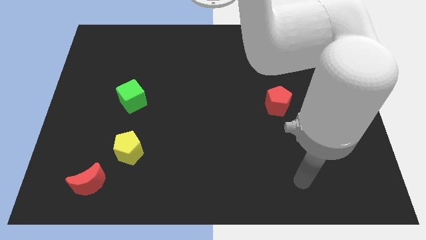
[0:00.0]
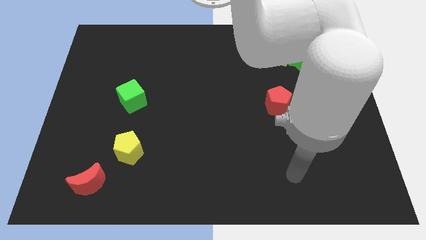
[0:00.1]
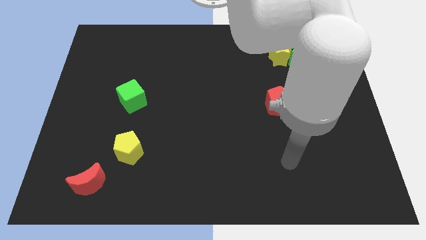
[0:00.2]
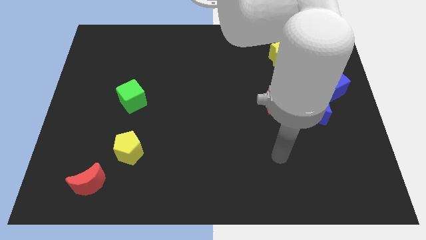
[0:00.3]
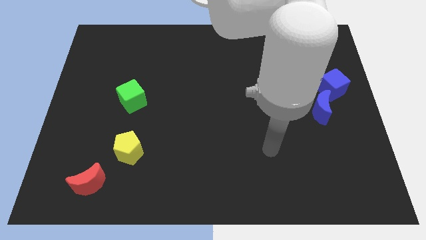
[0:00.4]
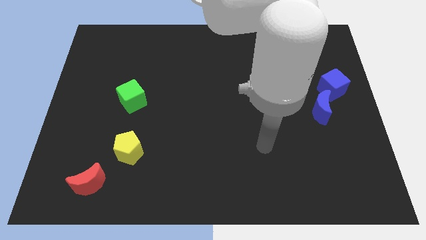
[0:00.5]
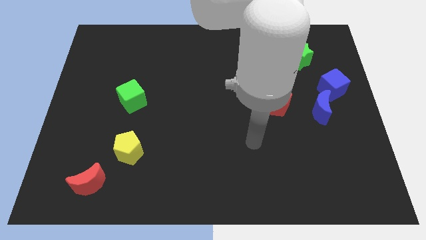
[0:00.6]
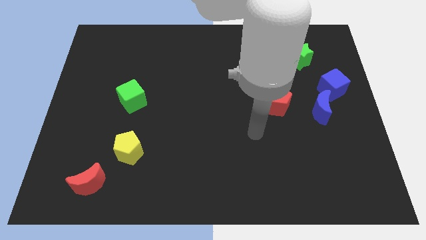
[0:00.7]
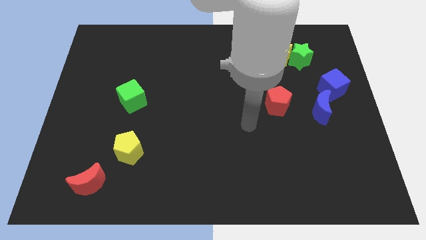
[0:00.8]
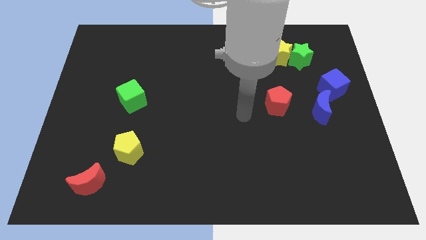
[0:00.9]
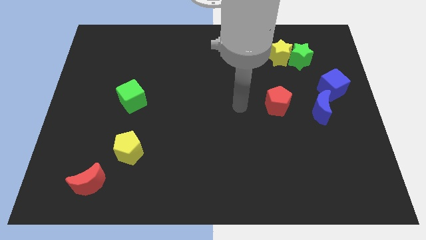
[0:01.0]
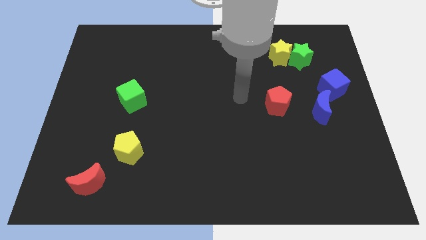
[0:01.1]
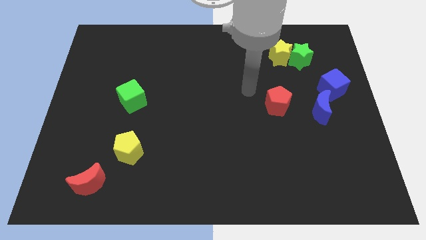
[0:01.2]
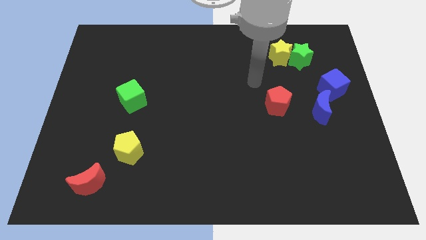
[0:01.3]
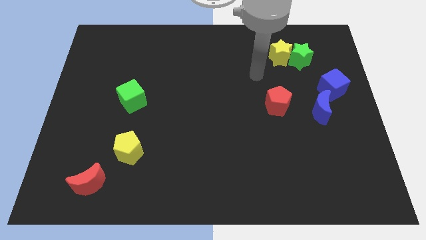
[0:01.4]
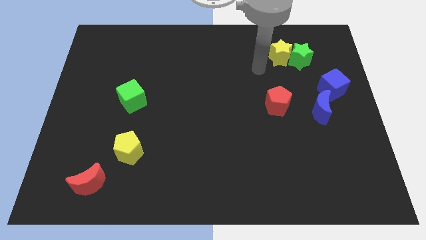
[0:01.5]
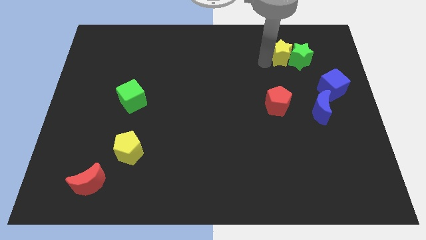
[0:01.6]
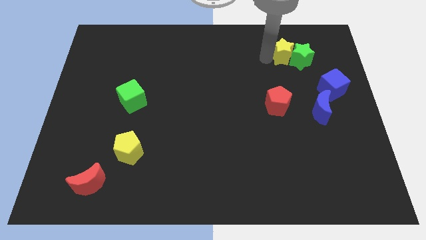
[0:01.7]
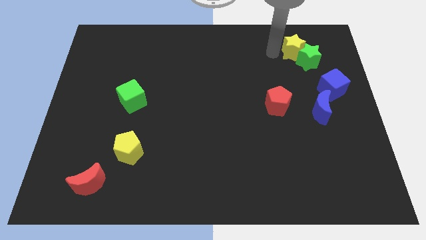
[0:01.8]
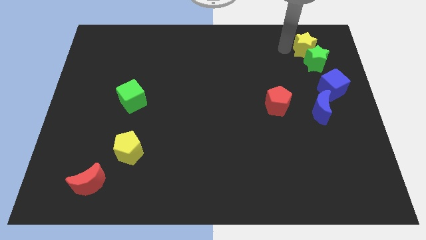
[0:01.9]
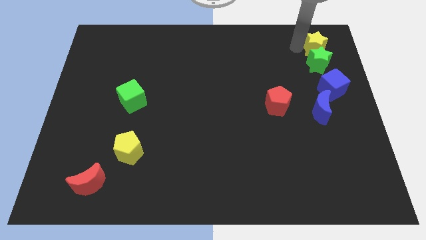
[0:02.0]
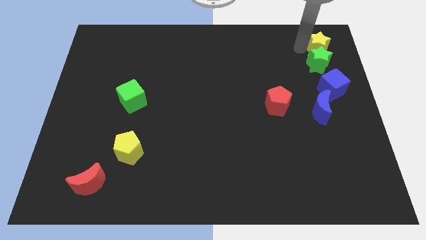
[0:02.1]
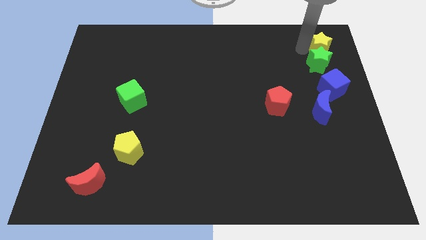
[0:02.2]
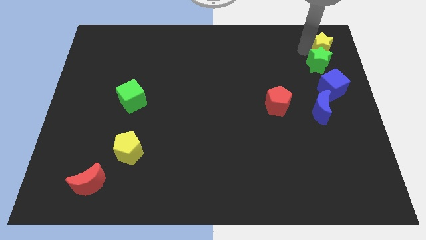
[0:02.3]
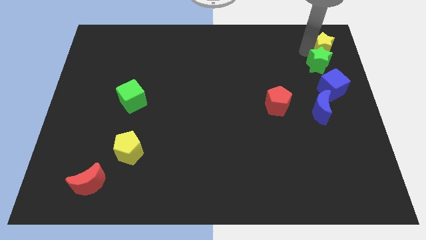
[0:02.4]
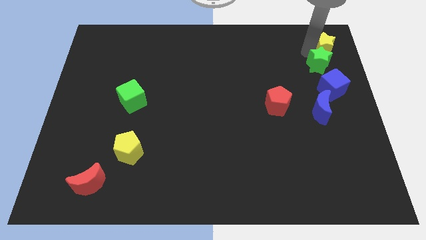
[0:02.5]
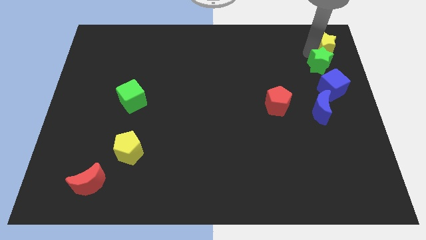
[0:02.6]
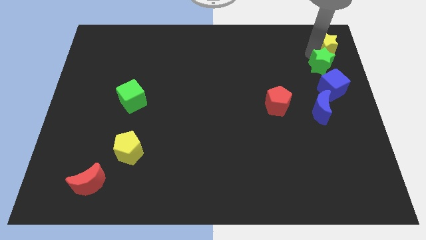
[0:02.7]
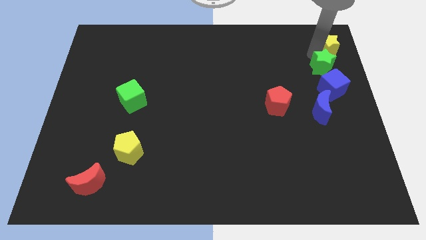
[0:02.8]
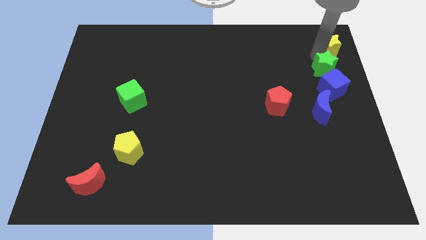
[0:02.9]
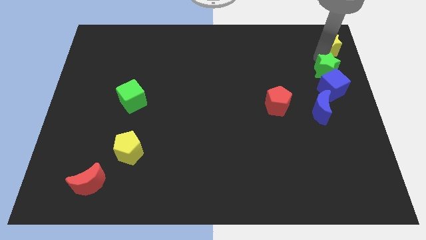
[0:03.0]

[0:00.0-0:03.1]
put the green star to the right side of the board

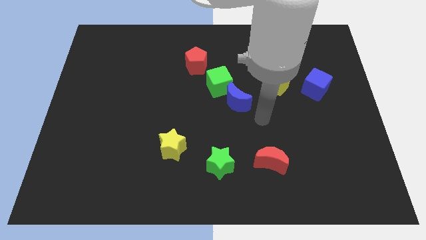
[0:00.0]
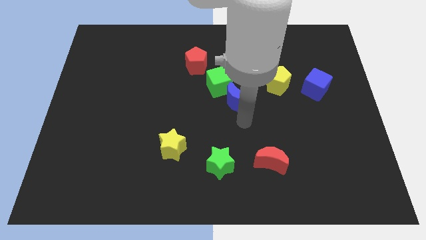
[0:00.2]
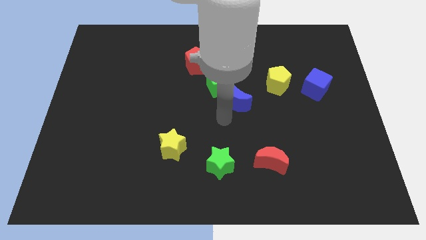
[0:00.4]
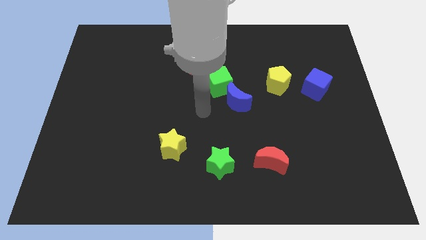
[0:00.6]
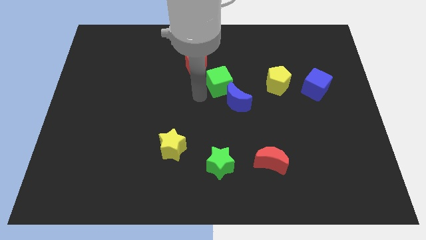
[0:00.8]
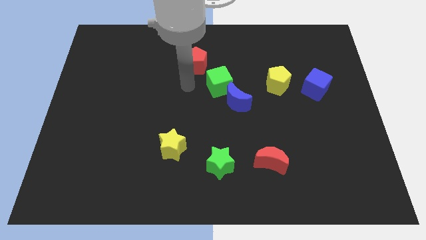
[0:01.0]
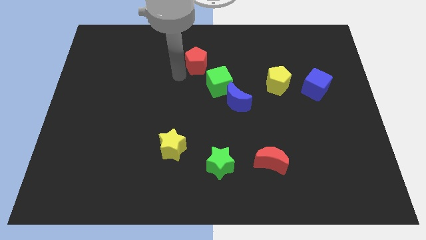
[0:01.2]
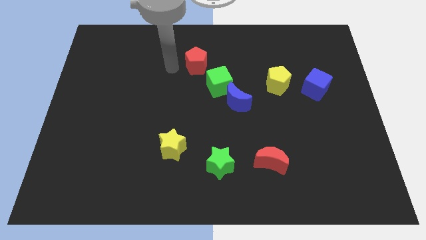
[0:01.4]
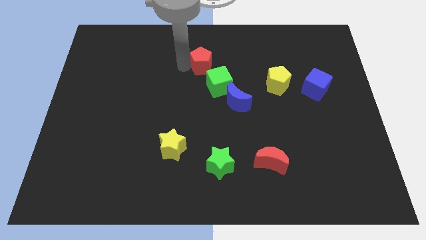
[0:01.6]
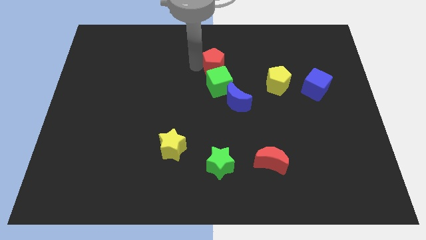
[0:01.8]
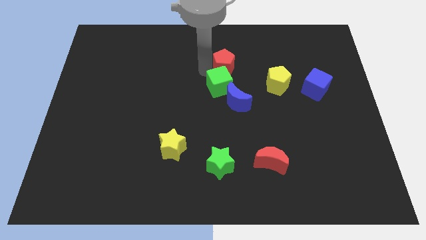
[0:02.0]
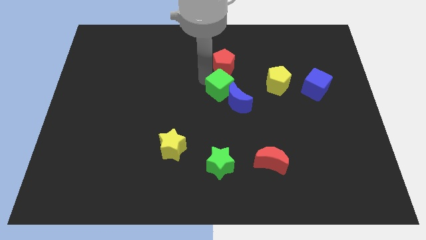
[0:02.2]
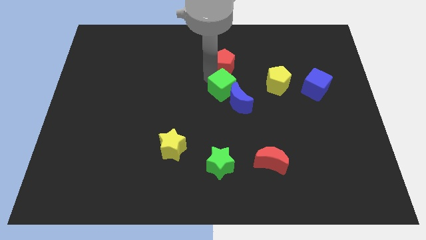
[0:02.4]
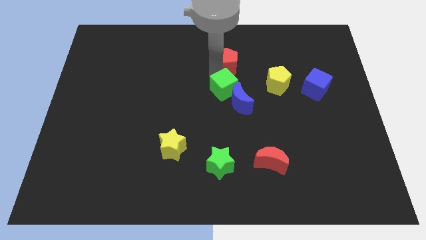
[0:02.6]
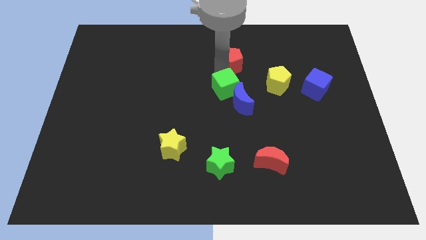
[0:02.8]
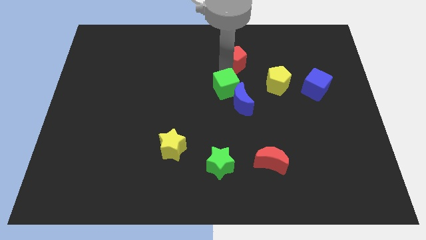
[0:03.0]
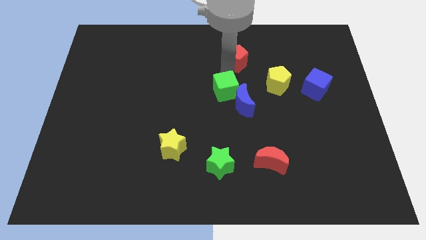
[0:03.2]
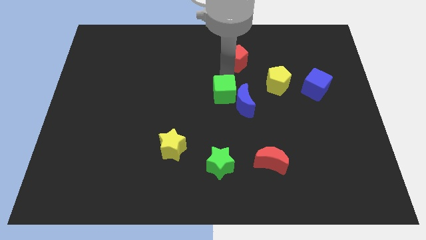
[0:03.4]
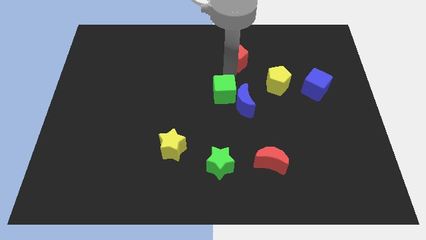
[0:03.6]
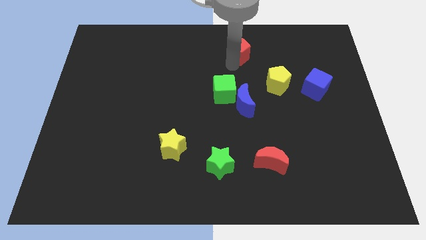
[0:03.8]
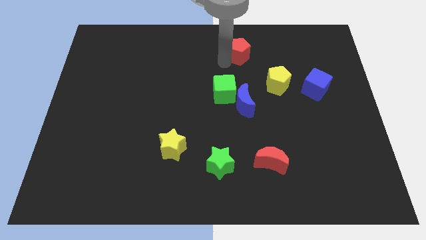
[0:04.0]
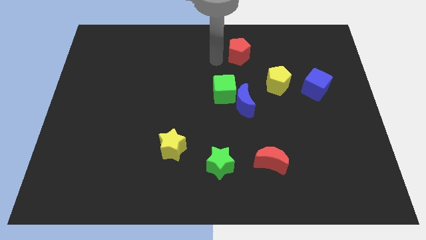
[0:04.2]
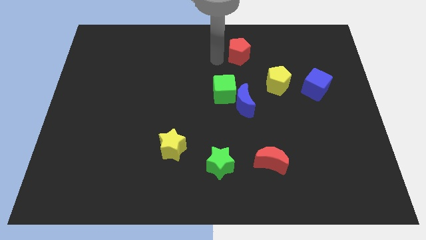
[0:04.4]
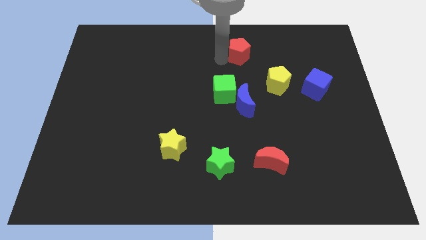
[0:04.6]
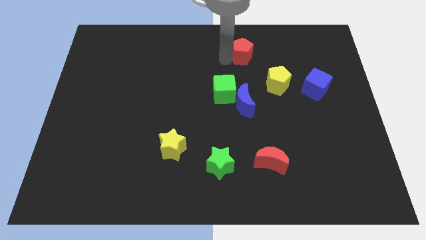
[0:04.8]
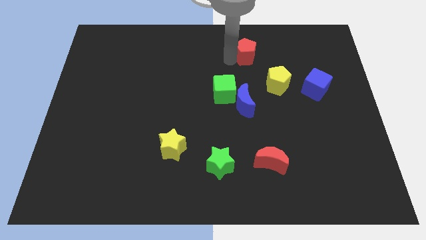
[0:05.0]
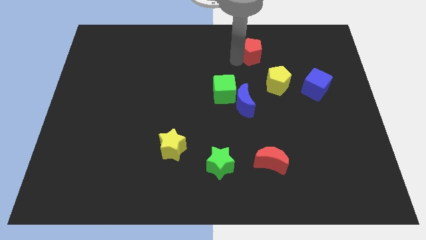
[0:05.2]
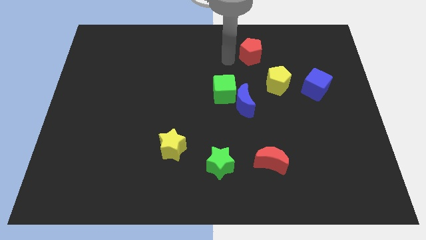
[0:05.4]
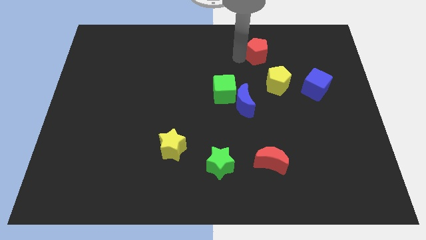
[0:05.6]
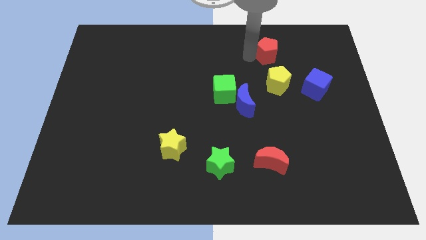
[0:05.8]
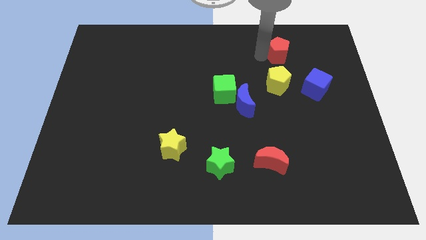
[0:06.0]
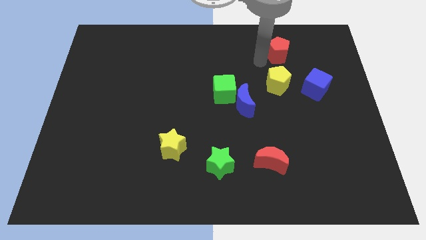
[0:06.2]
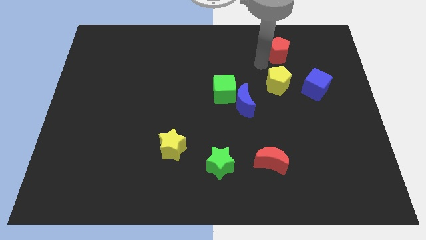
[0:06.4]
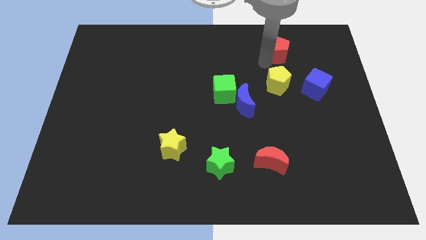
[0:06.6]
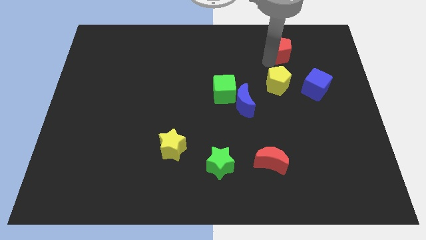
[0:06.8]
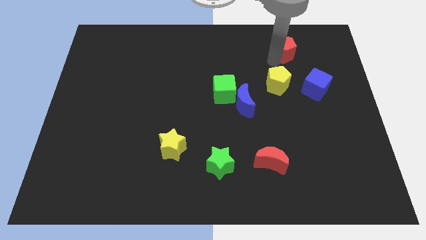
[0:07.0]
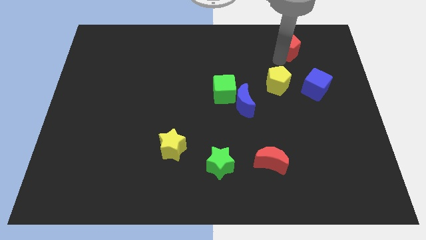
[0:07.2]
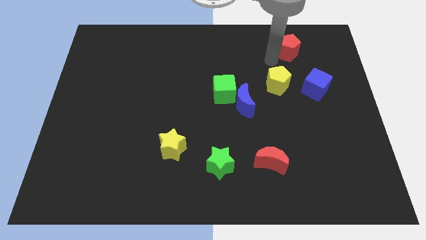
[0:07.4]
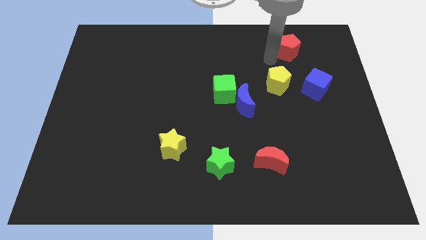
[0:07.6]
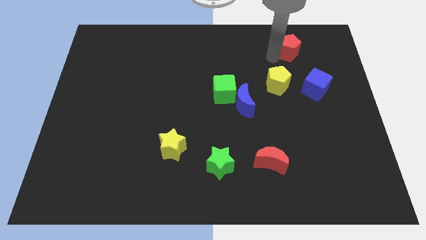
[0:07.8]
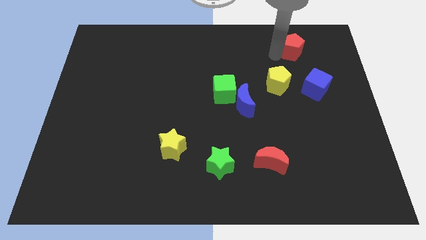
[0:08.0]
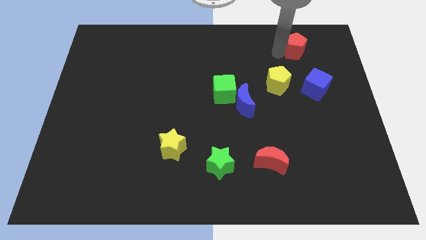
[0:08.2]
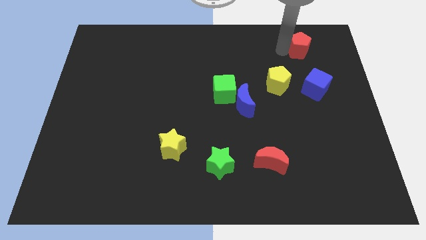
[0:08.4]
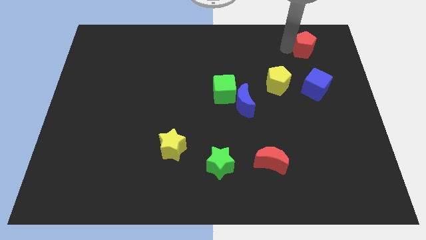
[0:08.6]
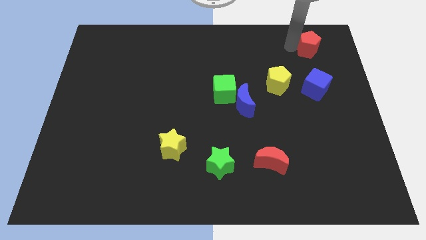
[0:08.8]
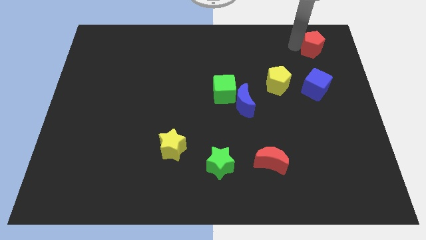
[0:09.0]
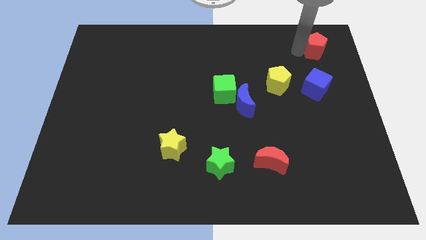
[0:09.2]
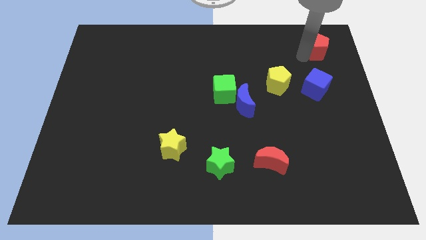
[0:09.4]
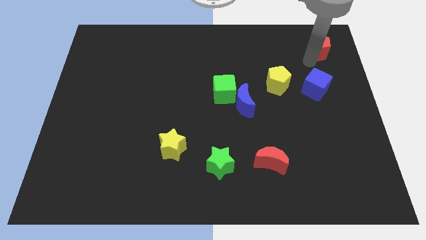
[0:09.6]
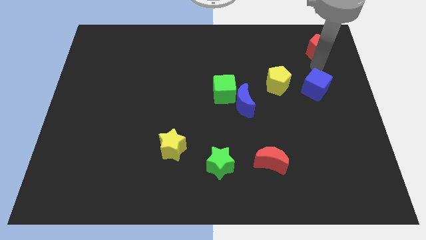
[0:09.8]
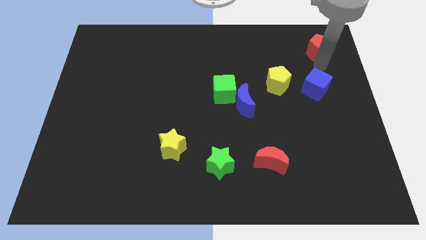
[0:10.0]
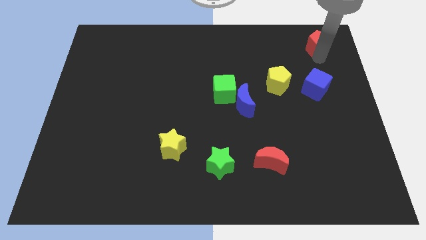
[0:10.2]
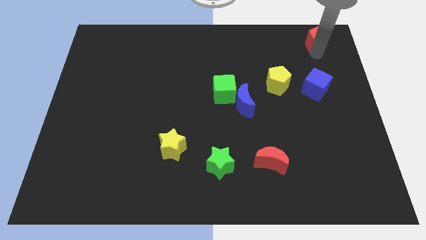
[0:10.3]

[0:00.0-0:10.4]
move the red pentagon to the upper right corner
